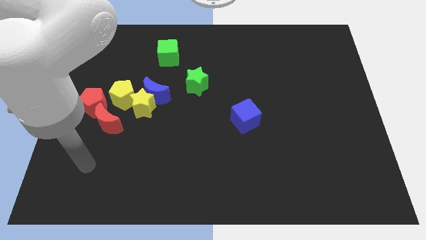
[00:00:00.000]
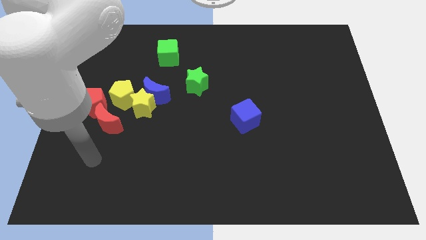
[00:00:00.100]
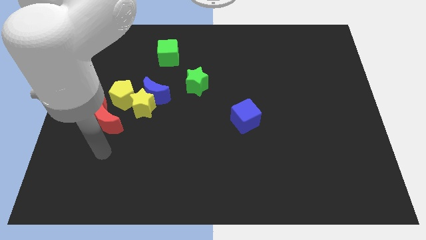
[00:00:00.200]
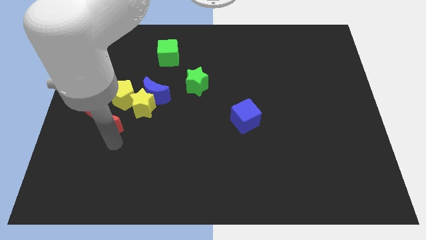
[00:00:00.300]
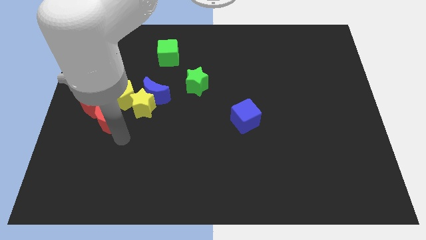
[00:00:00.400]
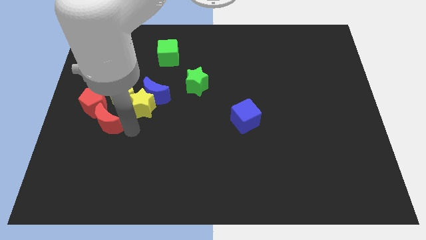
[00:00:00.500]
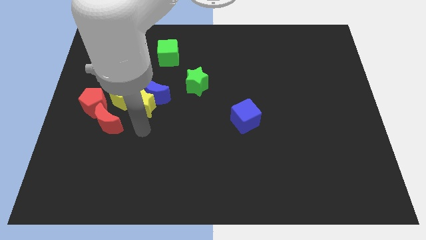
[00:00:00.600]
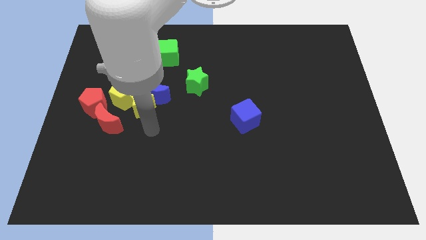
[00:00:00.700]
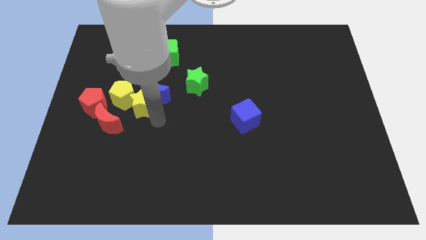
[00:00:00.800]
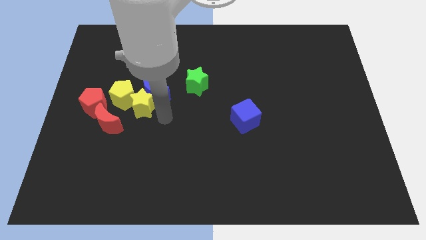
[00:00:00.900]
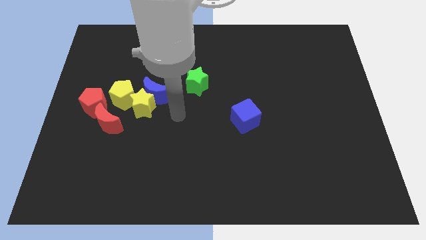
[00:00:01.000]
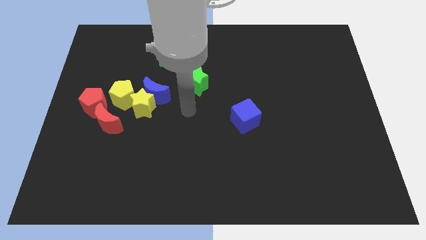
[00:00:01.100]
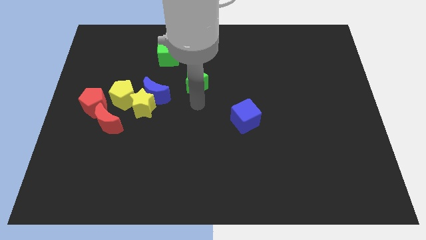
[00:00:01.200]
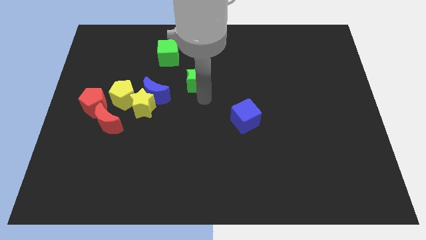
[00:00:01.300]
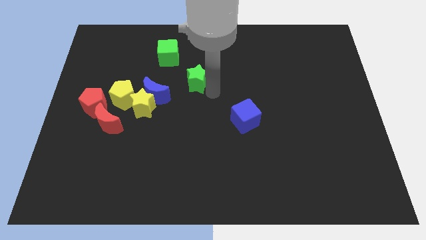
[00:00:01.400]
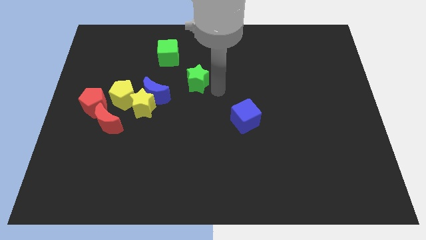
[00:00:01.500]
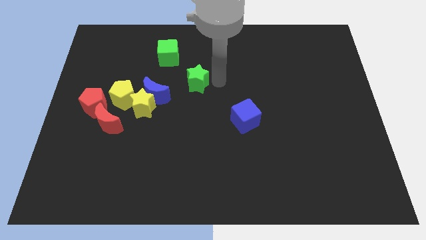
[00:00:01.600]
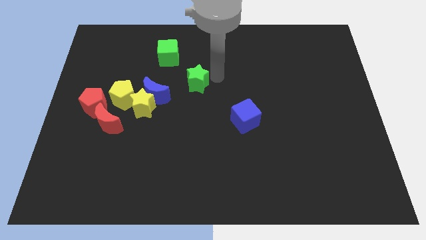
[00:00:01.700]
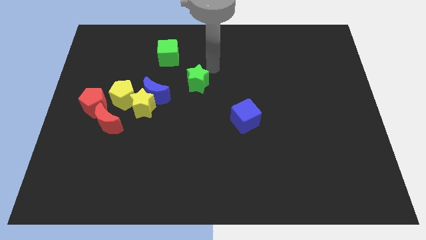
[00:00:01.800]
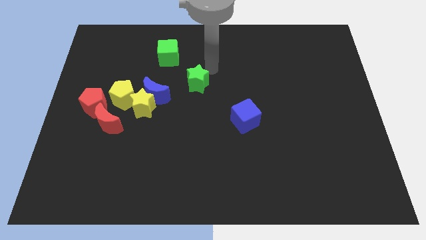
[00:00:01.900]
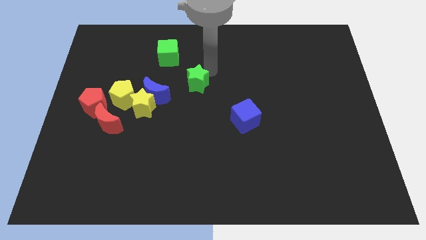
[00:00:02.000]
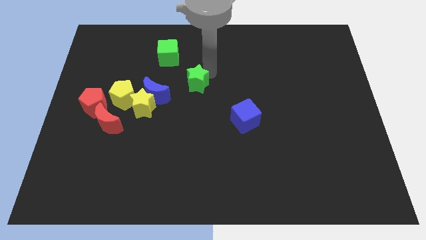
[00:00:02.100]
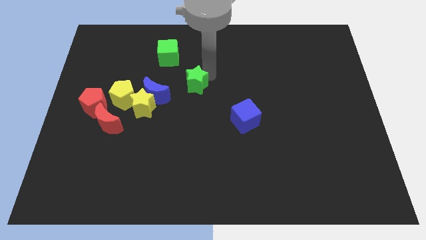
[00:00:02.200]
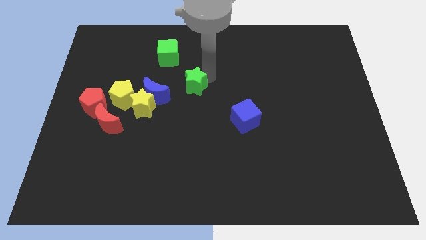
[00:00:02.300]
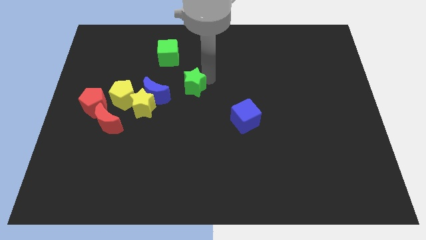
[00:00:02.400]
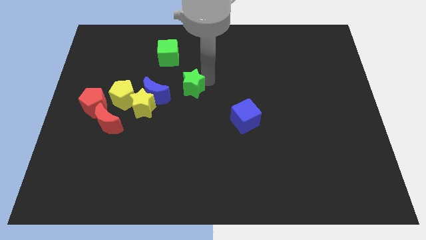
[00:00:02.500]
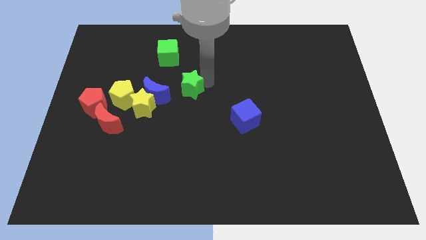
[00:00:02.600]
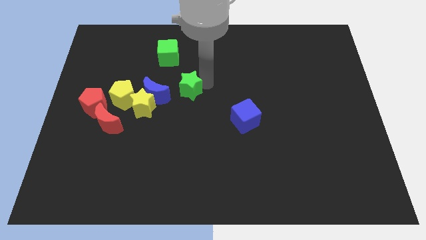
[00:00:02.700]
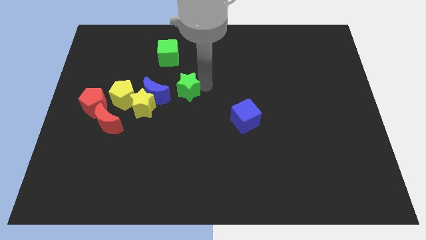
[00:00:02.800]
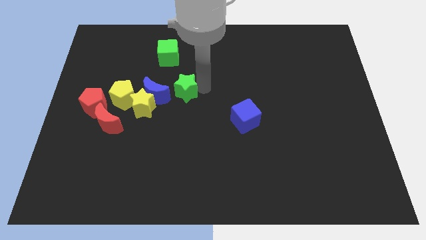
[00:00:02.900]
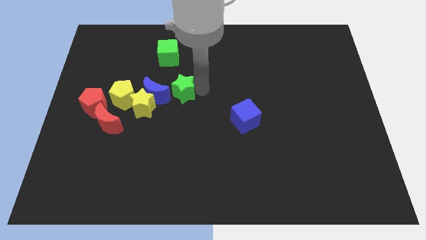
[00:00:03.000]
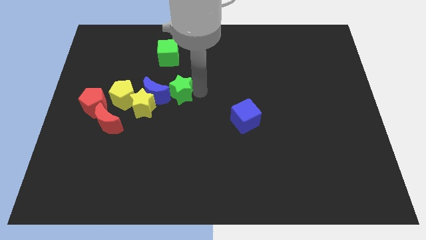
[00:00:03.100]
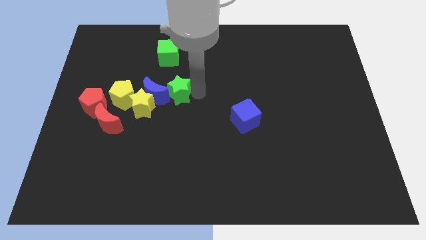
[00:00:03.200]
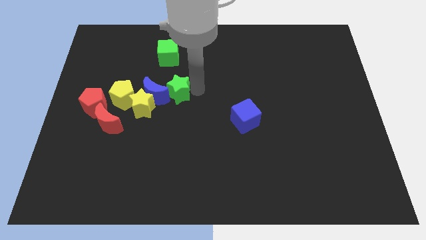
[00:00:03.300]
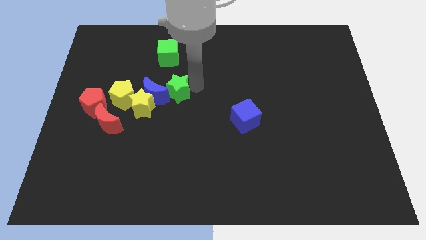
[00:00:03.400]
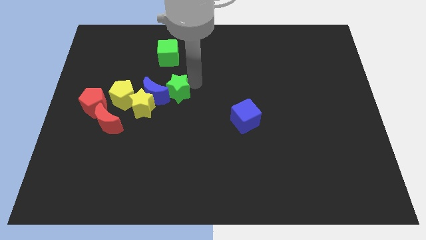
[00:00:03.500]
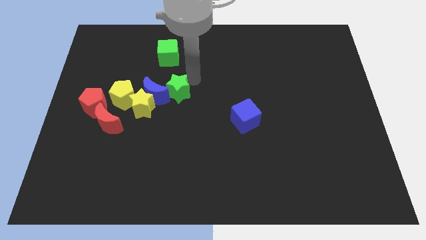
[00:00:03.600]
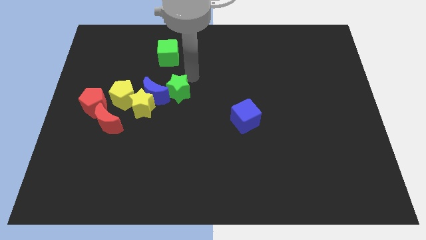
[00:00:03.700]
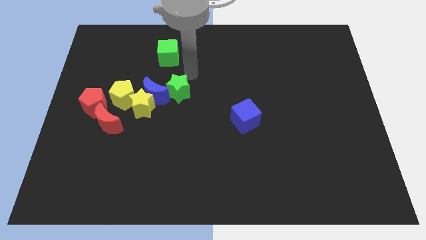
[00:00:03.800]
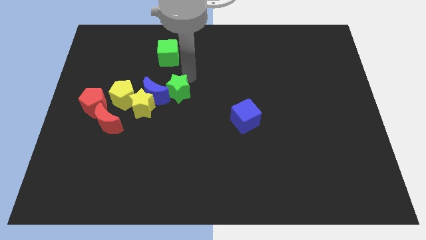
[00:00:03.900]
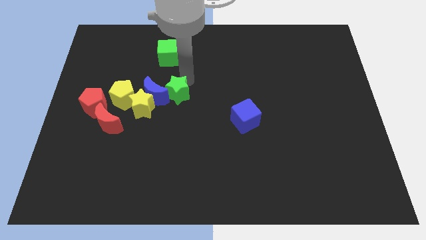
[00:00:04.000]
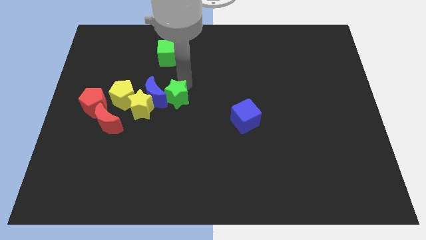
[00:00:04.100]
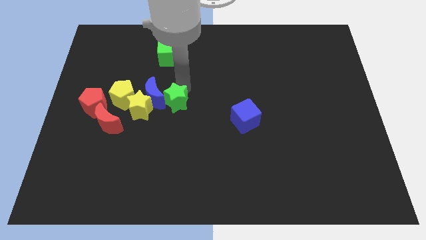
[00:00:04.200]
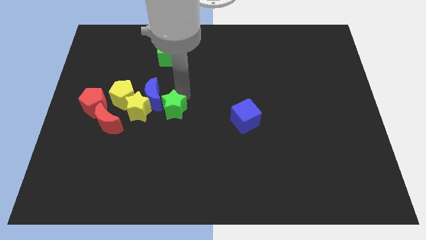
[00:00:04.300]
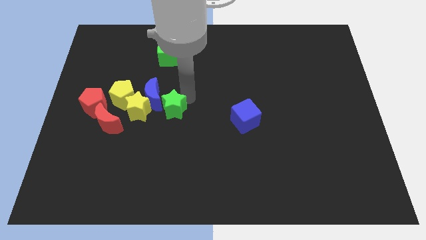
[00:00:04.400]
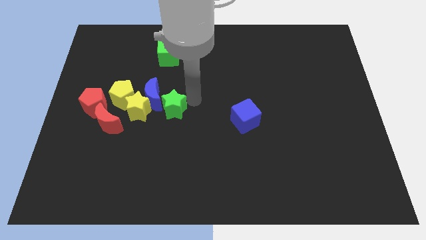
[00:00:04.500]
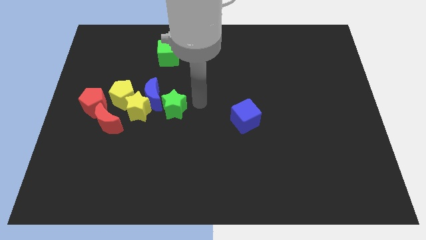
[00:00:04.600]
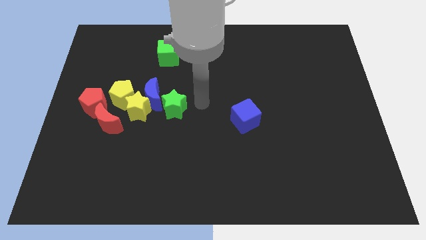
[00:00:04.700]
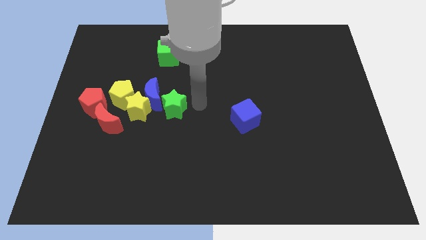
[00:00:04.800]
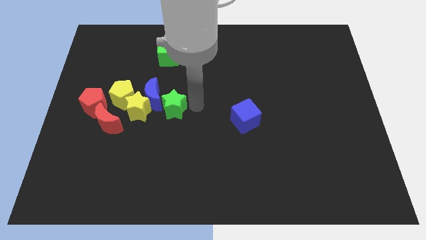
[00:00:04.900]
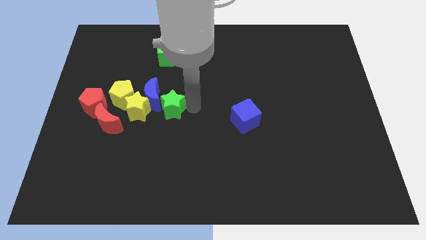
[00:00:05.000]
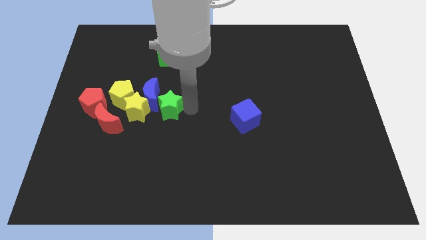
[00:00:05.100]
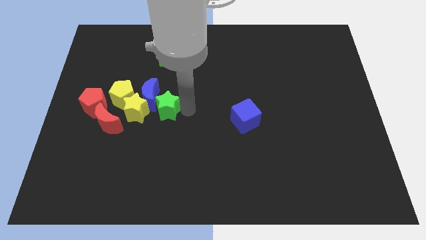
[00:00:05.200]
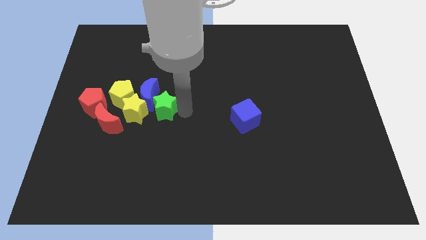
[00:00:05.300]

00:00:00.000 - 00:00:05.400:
slide the green star diagonally down and to the right of the yellow pentagon
